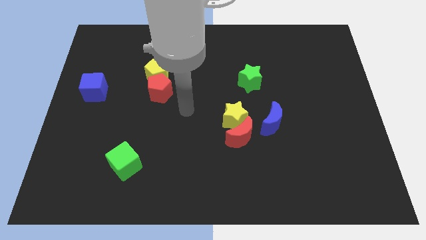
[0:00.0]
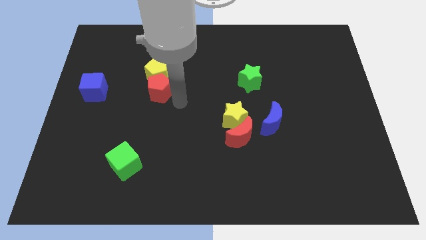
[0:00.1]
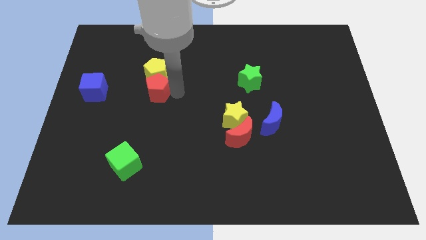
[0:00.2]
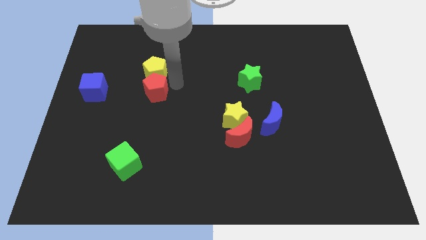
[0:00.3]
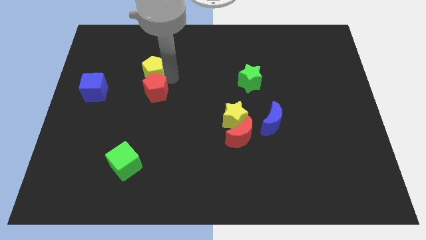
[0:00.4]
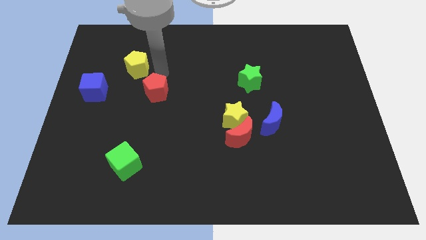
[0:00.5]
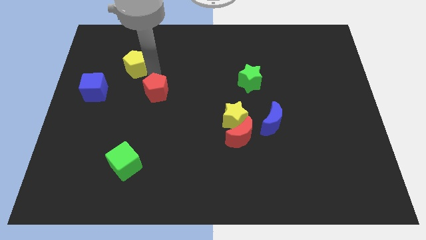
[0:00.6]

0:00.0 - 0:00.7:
separate the red pentagon from the yellow pentagon

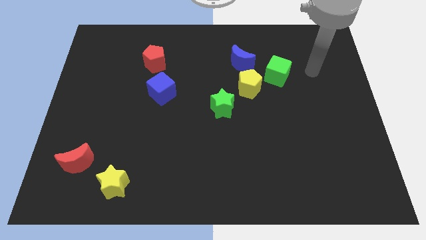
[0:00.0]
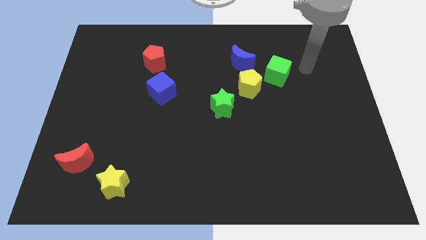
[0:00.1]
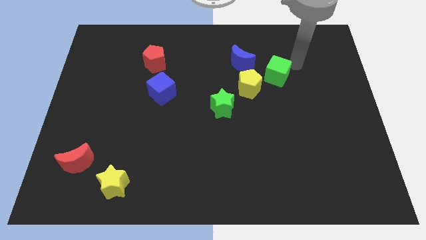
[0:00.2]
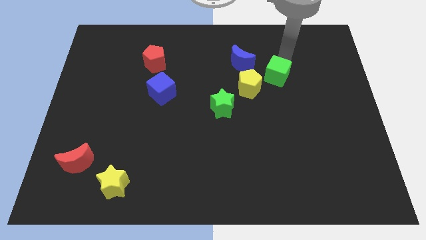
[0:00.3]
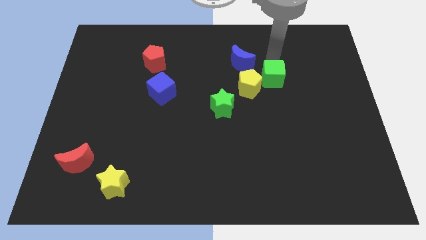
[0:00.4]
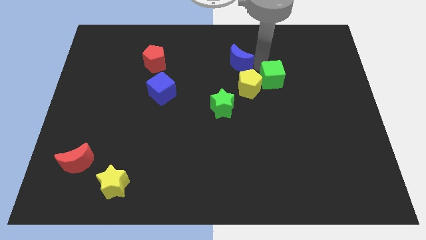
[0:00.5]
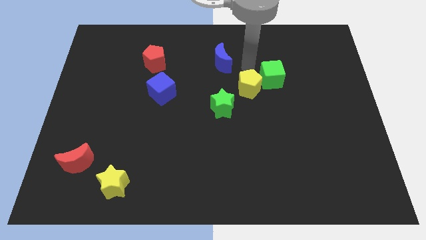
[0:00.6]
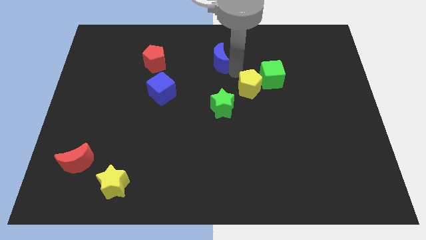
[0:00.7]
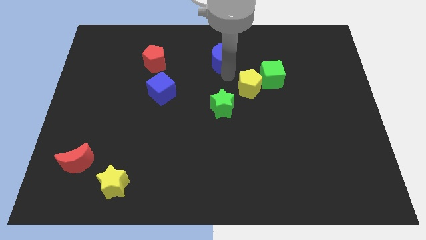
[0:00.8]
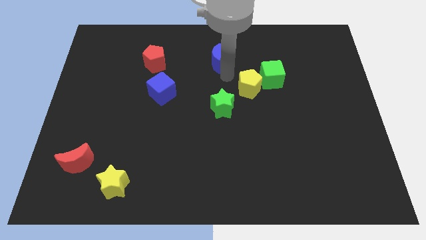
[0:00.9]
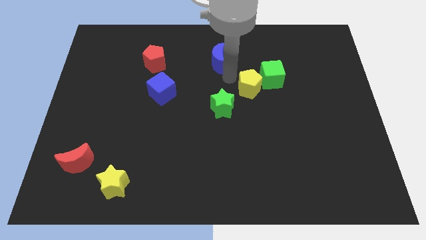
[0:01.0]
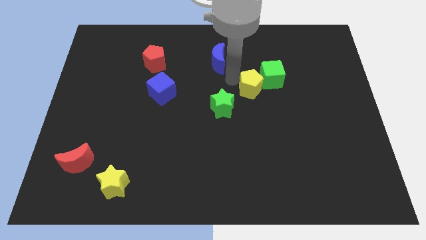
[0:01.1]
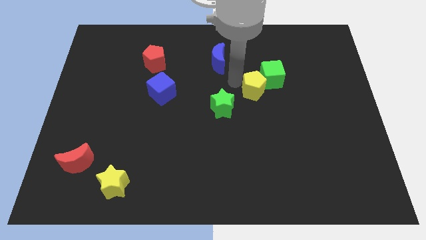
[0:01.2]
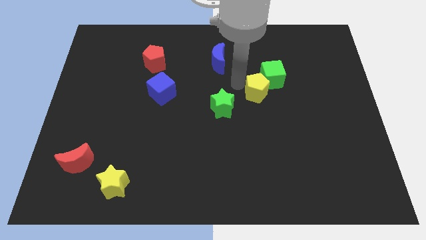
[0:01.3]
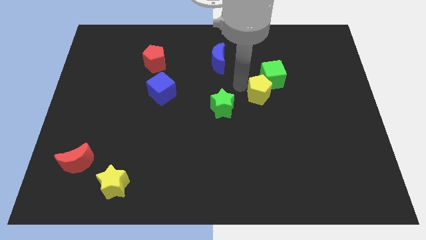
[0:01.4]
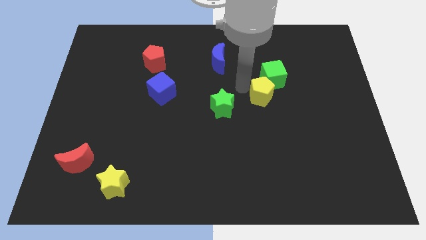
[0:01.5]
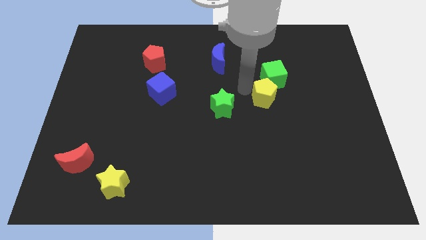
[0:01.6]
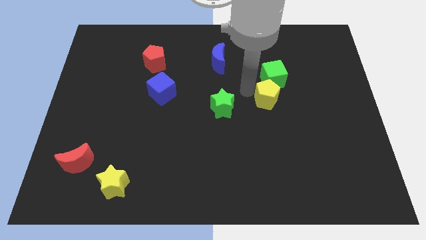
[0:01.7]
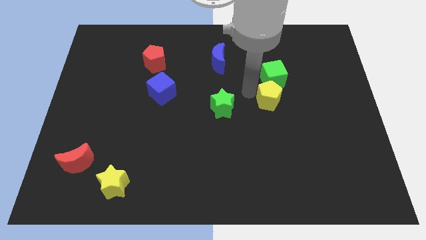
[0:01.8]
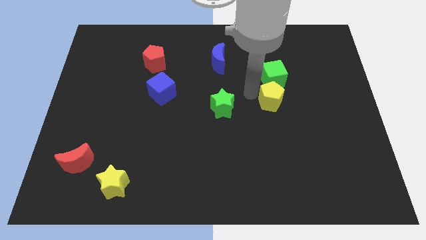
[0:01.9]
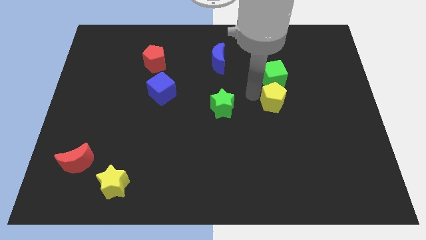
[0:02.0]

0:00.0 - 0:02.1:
move the yellow pentagon away from the clump

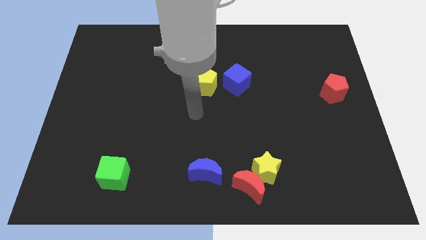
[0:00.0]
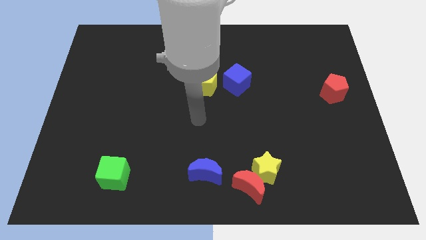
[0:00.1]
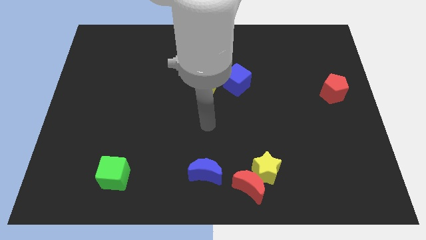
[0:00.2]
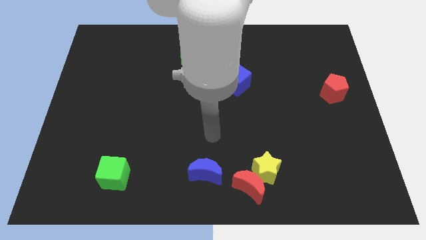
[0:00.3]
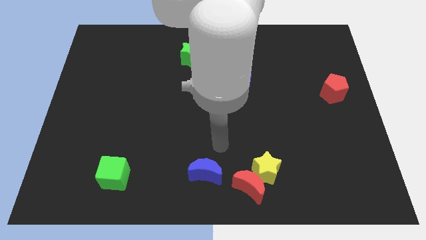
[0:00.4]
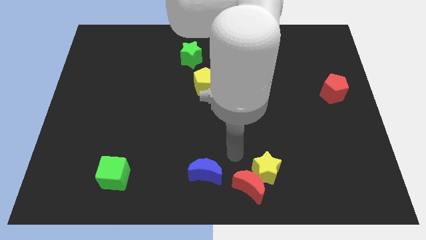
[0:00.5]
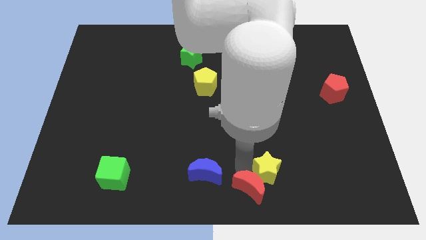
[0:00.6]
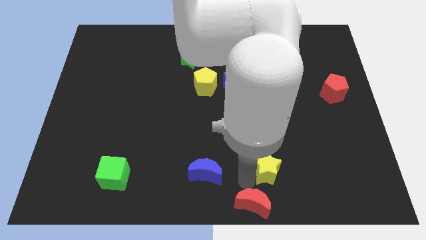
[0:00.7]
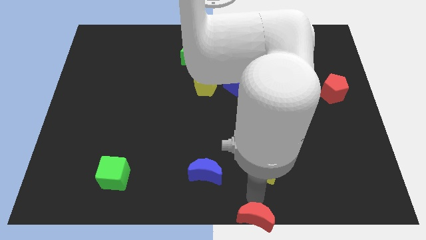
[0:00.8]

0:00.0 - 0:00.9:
separate the yellow star from the red moon

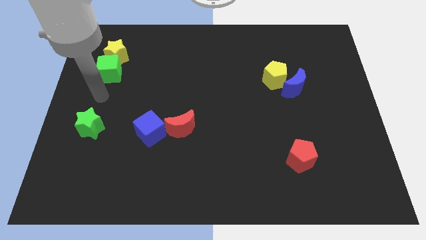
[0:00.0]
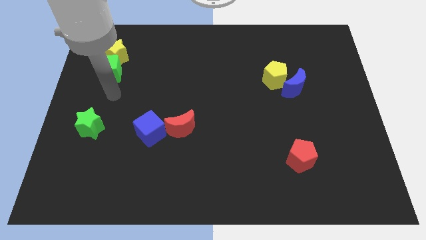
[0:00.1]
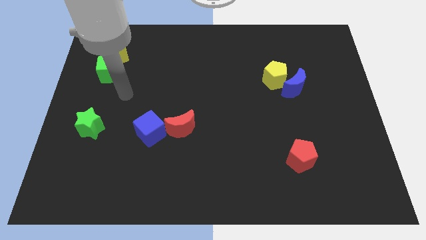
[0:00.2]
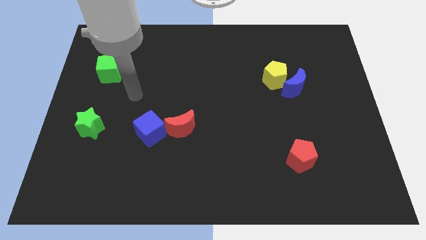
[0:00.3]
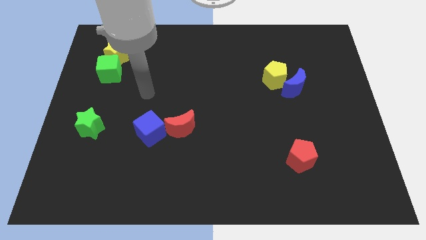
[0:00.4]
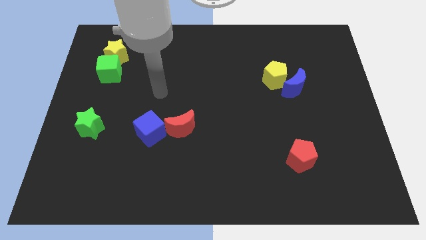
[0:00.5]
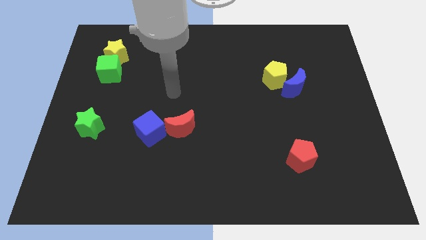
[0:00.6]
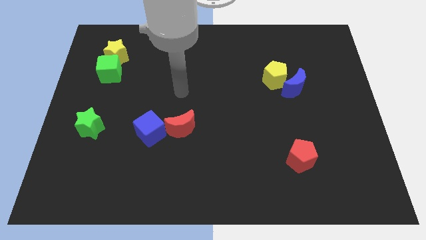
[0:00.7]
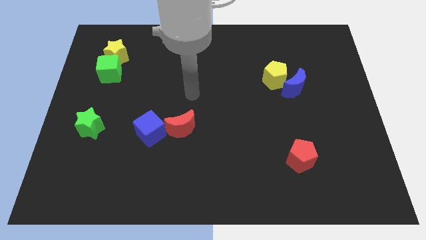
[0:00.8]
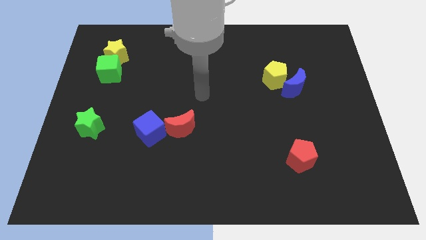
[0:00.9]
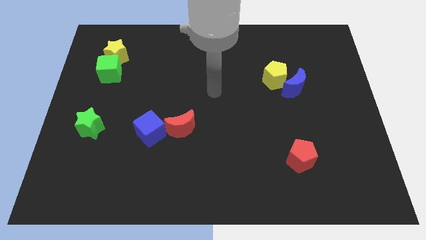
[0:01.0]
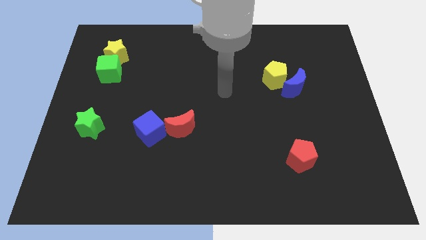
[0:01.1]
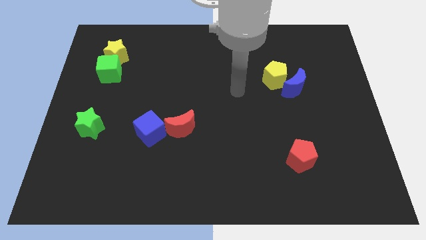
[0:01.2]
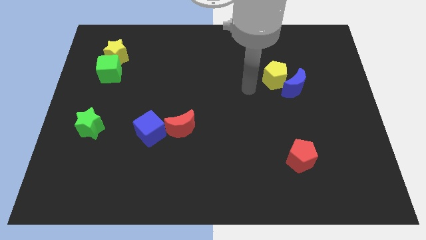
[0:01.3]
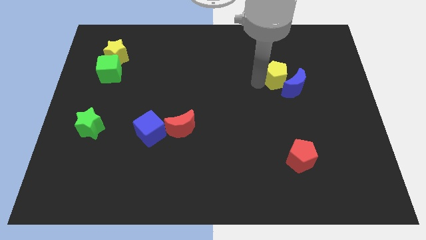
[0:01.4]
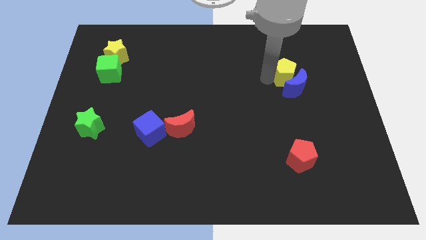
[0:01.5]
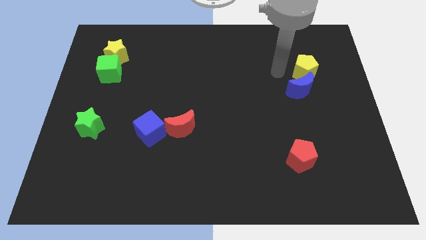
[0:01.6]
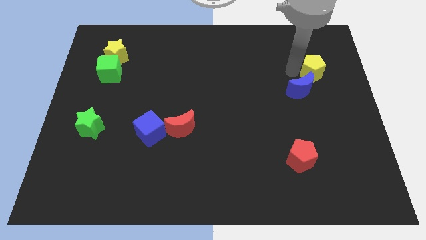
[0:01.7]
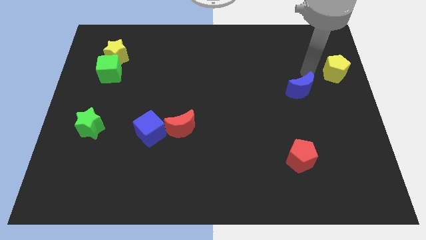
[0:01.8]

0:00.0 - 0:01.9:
move the blue moon away from the yellow pentagon

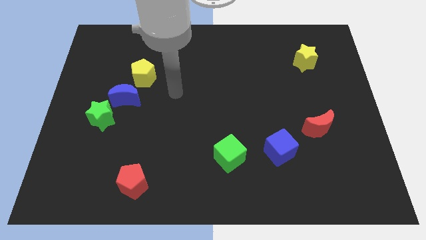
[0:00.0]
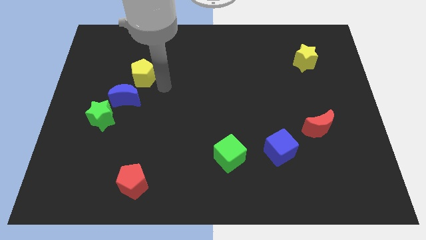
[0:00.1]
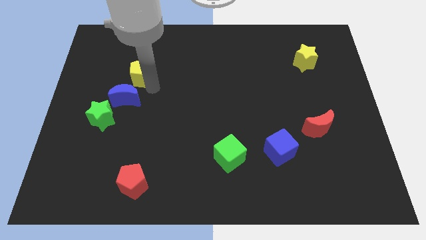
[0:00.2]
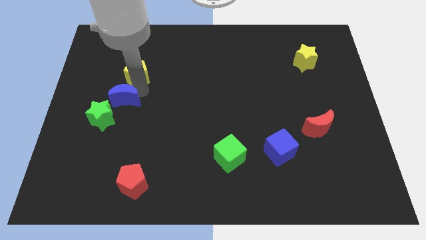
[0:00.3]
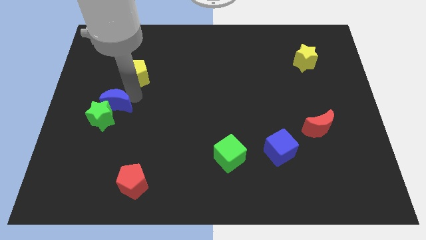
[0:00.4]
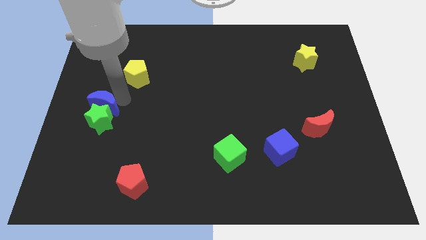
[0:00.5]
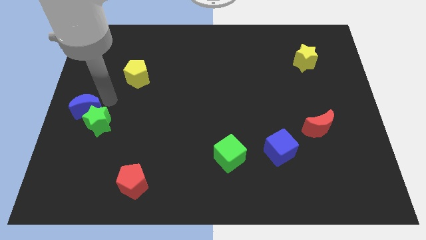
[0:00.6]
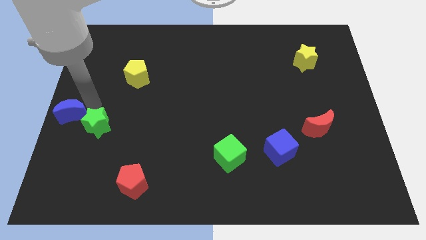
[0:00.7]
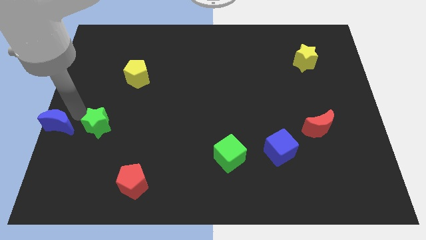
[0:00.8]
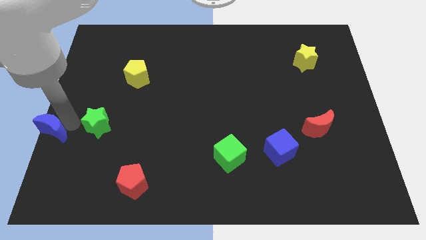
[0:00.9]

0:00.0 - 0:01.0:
move the green star away from the blue moon

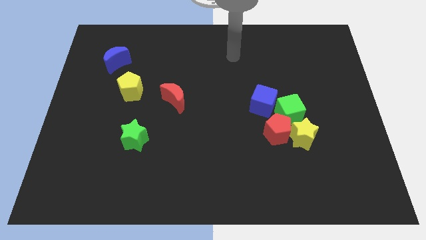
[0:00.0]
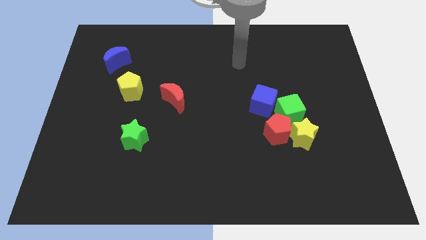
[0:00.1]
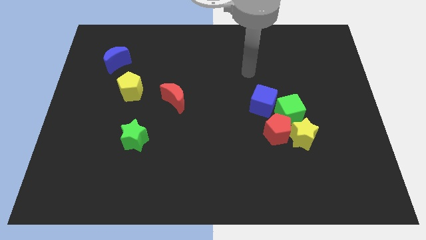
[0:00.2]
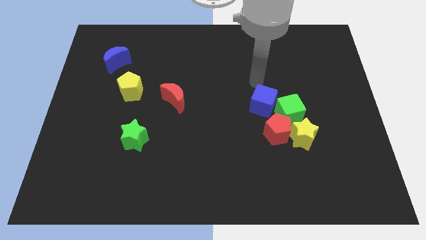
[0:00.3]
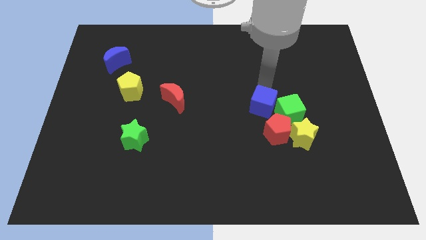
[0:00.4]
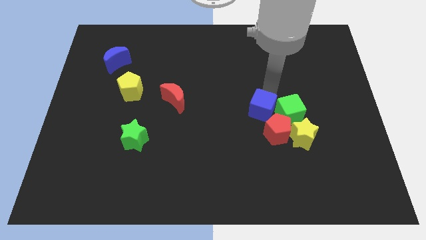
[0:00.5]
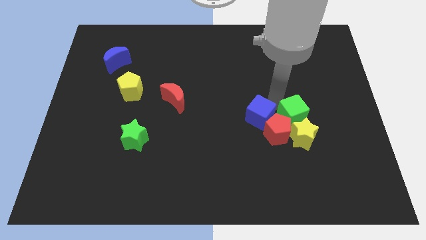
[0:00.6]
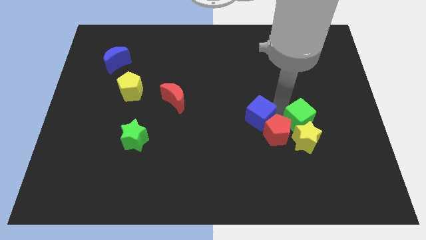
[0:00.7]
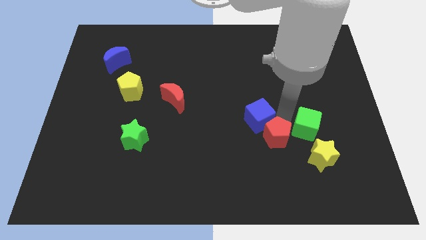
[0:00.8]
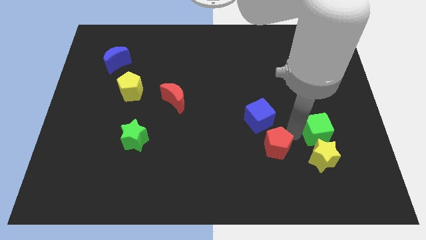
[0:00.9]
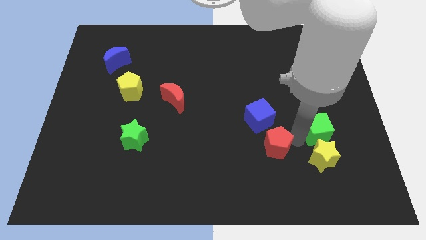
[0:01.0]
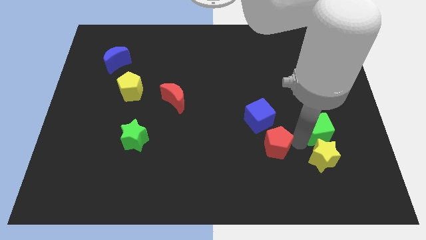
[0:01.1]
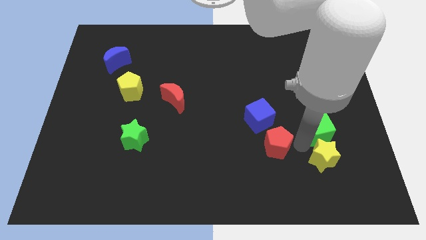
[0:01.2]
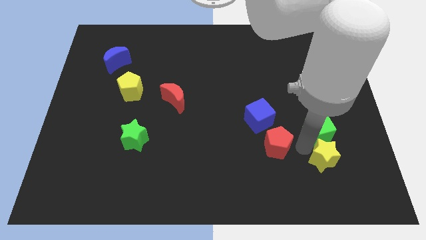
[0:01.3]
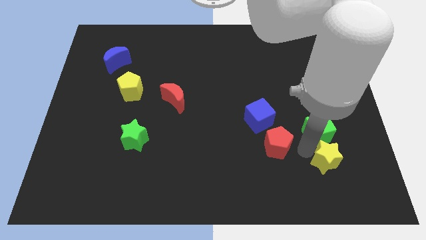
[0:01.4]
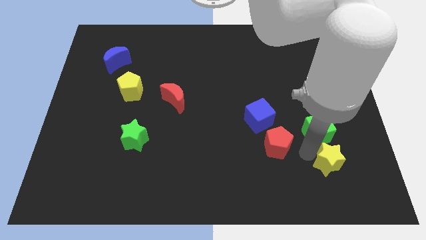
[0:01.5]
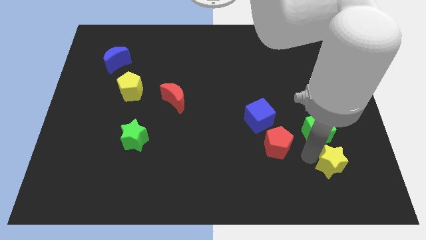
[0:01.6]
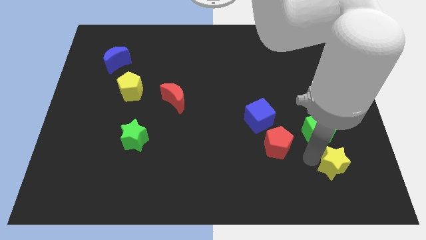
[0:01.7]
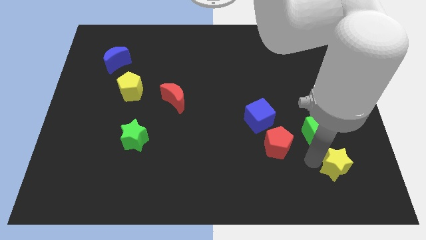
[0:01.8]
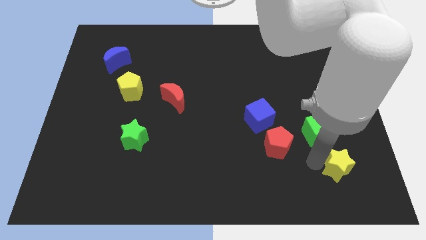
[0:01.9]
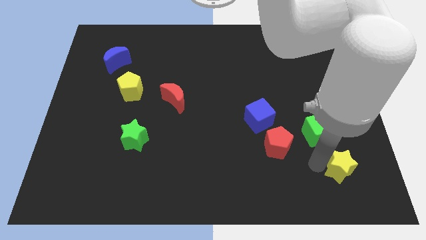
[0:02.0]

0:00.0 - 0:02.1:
pull the yellow star apart from the red pentagon and green cube

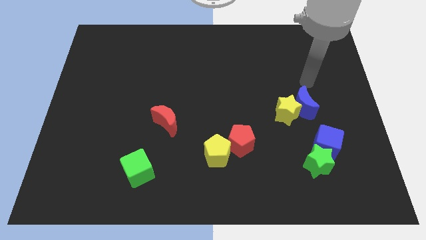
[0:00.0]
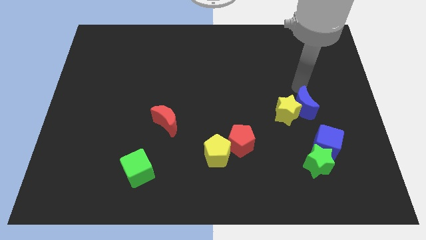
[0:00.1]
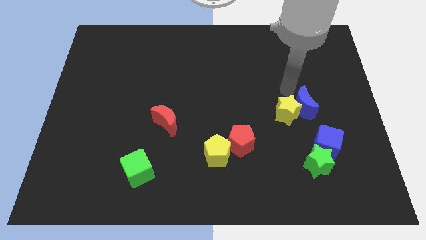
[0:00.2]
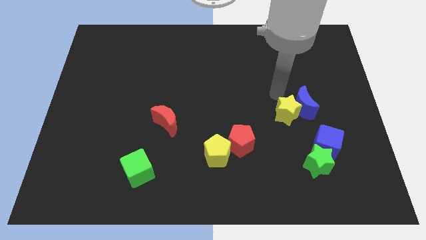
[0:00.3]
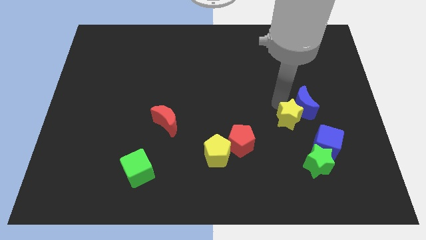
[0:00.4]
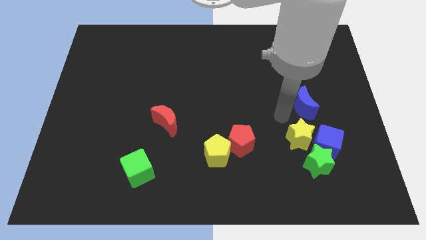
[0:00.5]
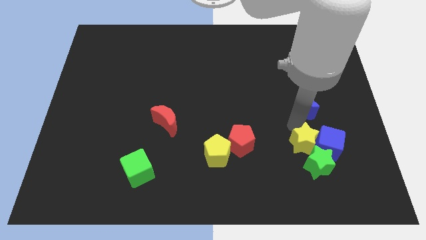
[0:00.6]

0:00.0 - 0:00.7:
separate the blue moon from the yellow star
